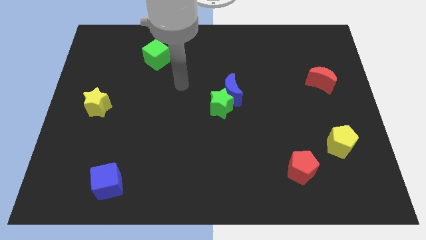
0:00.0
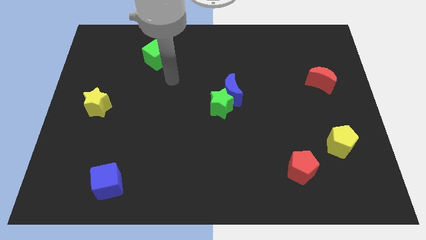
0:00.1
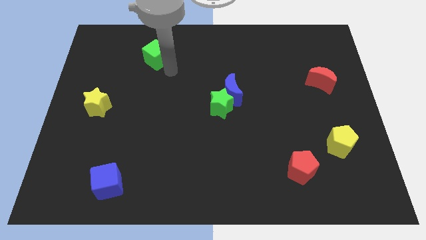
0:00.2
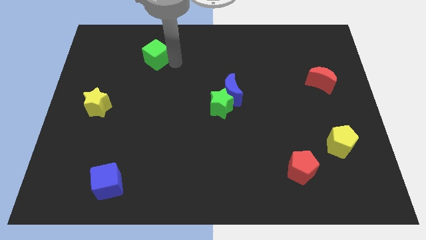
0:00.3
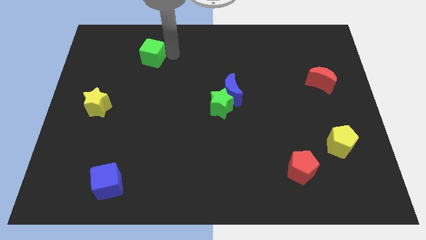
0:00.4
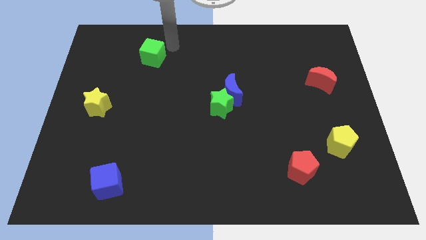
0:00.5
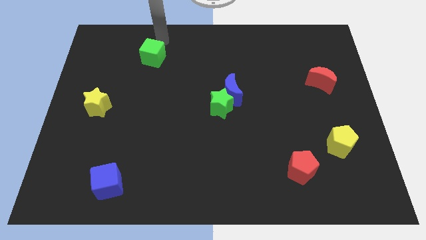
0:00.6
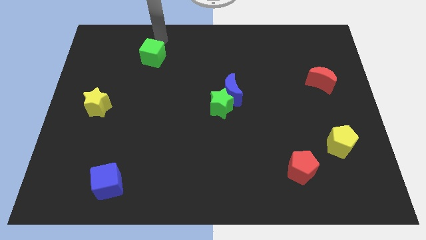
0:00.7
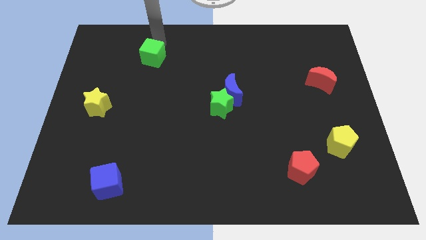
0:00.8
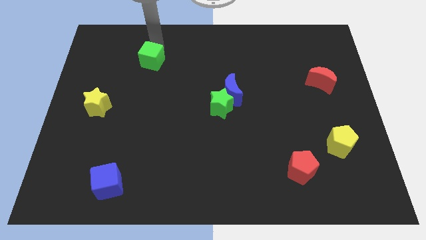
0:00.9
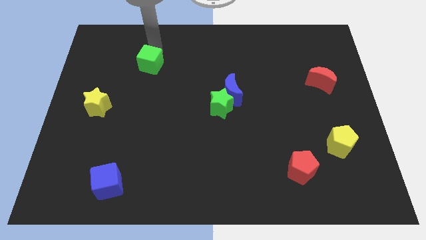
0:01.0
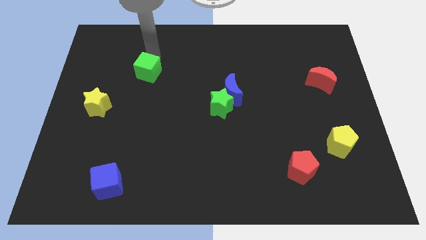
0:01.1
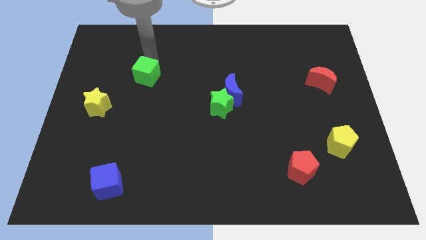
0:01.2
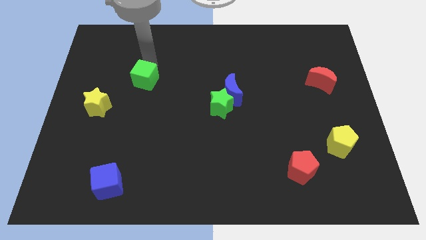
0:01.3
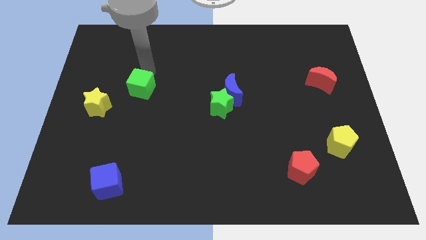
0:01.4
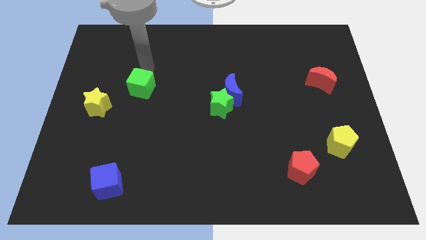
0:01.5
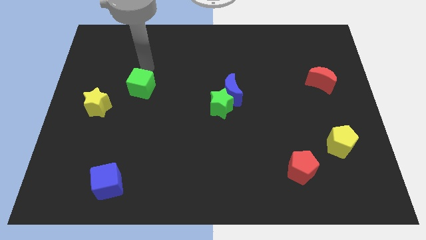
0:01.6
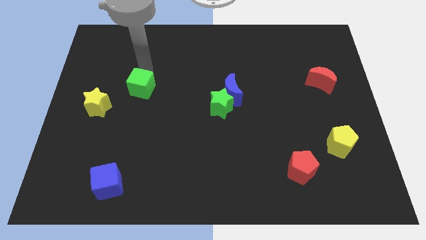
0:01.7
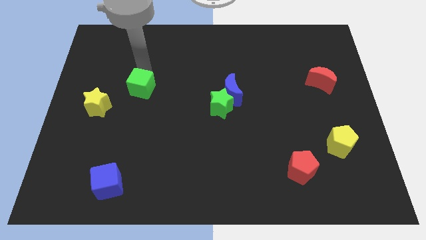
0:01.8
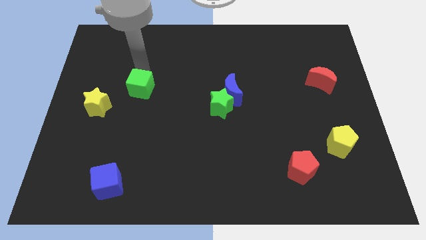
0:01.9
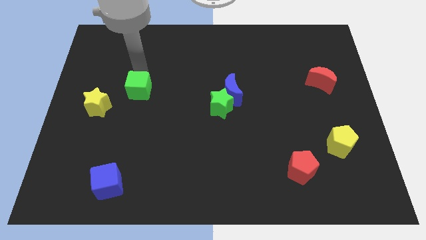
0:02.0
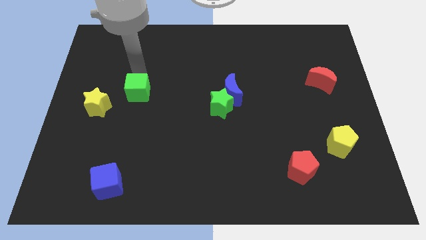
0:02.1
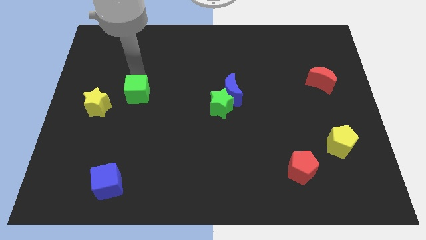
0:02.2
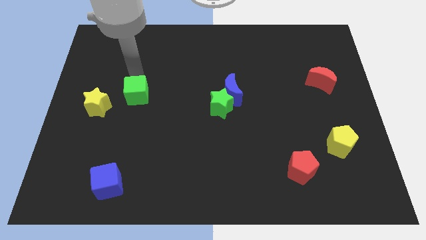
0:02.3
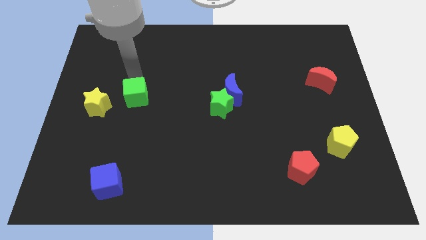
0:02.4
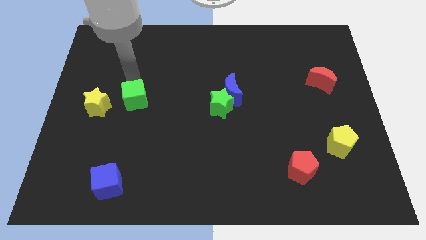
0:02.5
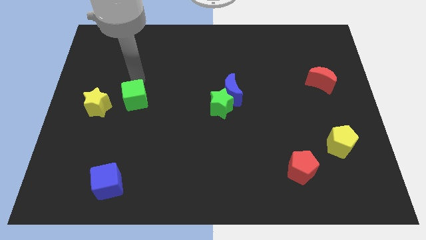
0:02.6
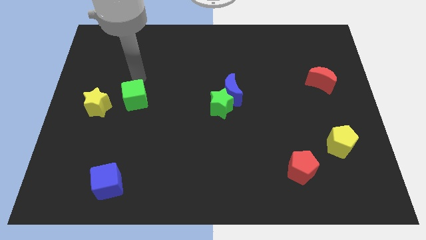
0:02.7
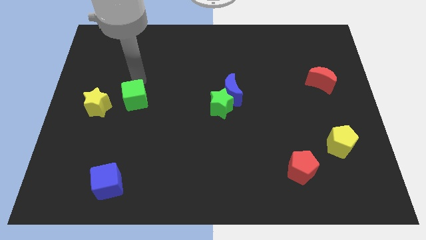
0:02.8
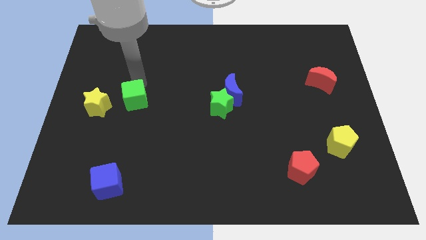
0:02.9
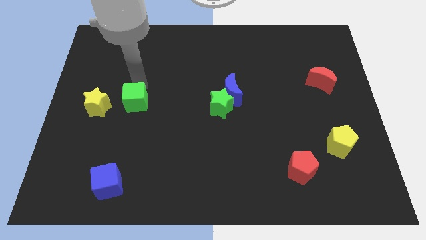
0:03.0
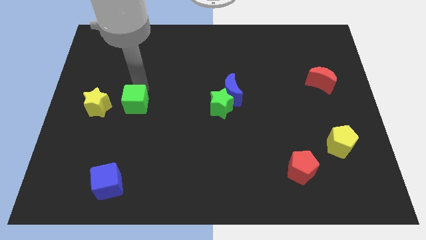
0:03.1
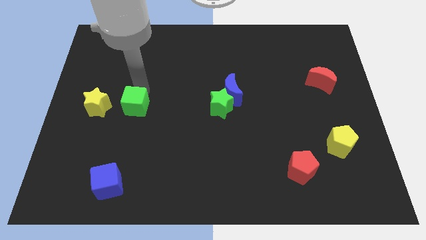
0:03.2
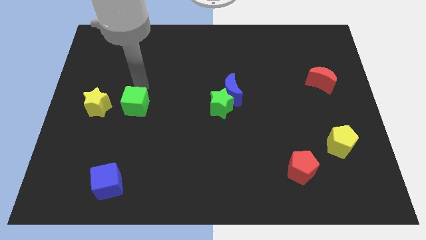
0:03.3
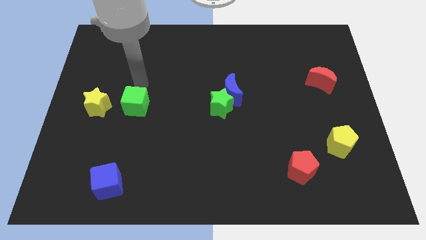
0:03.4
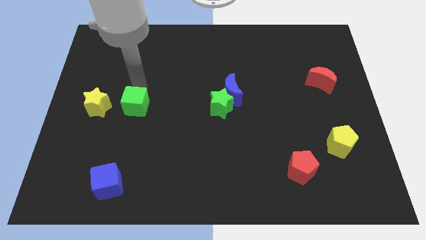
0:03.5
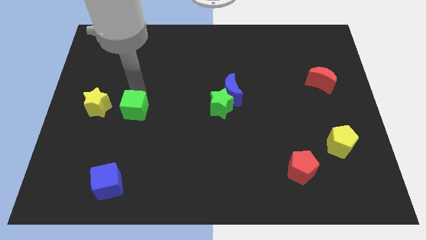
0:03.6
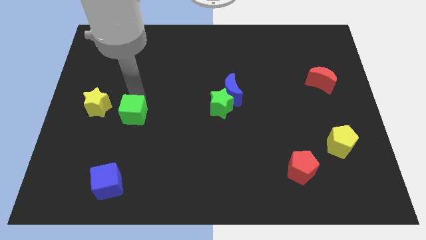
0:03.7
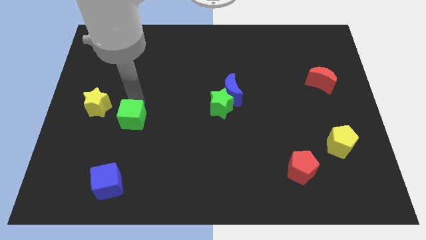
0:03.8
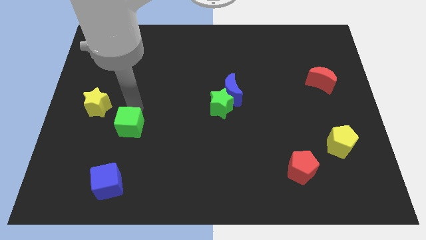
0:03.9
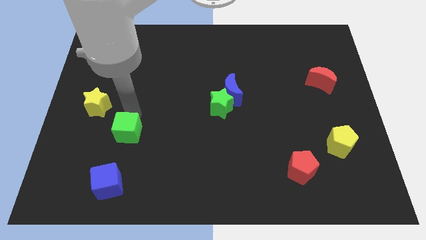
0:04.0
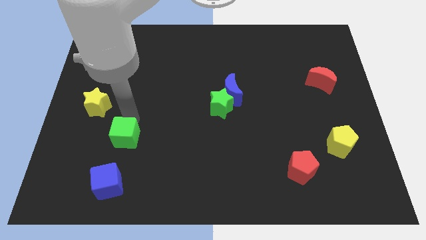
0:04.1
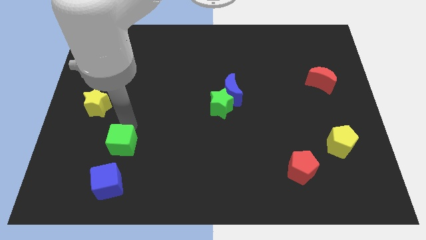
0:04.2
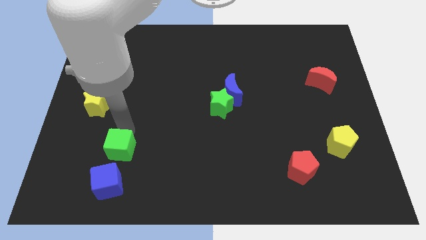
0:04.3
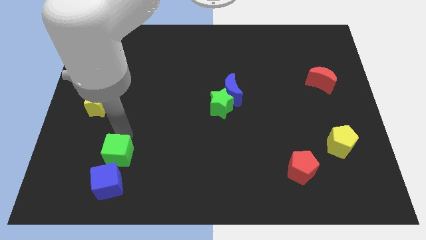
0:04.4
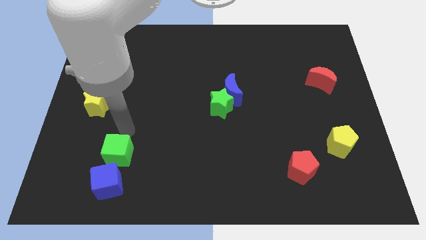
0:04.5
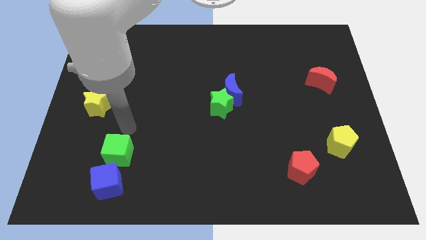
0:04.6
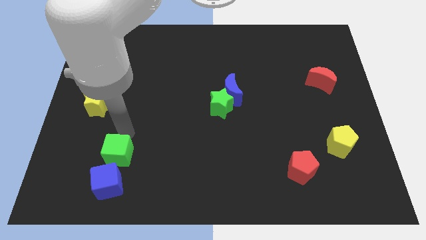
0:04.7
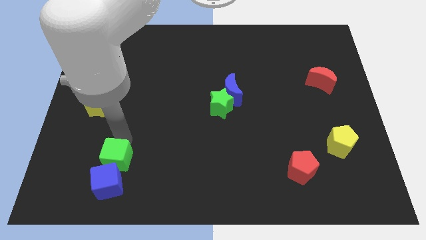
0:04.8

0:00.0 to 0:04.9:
put the green cube next to the blue cube

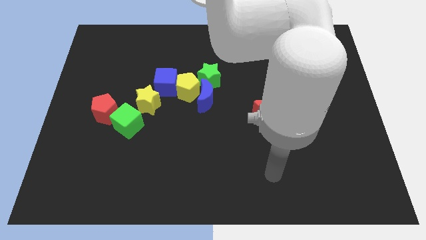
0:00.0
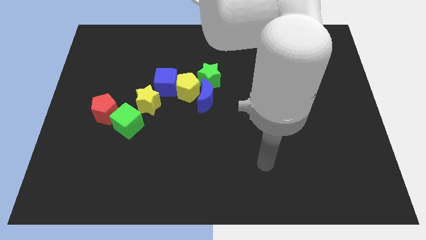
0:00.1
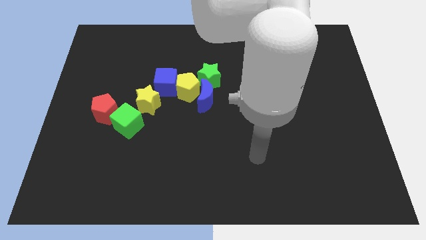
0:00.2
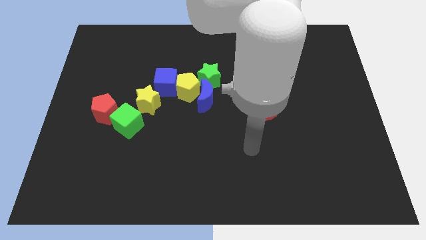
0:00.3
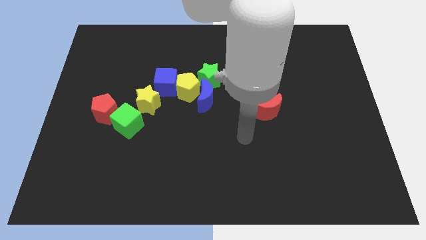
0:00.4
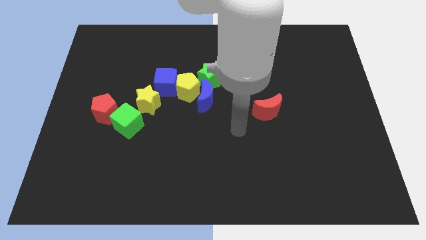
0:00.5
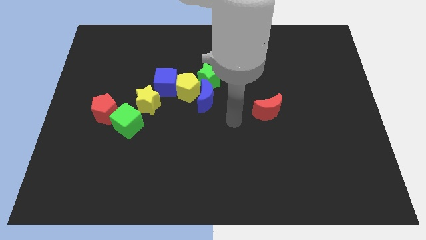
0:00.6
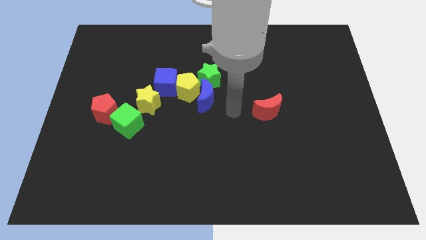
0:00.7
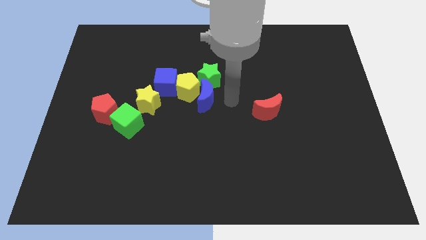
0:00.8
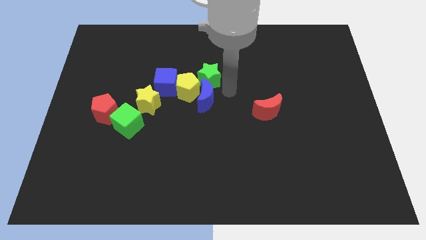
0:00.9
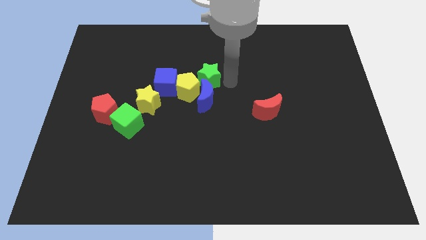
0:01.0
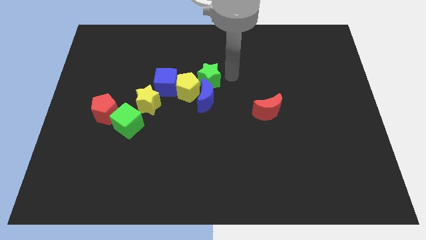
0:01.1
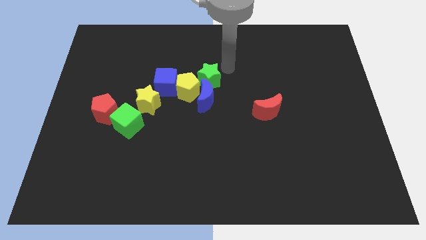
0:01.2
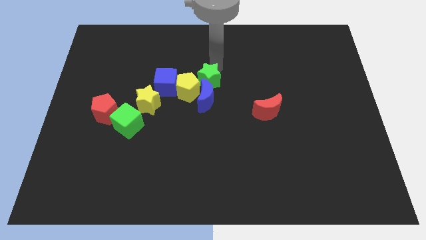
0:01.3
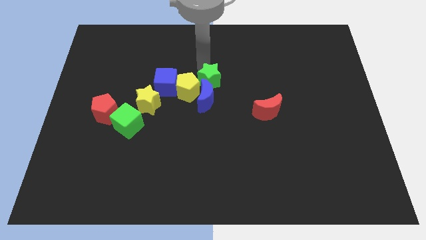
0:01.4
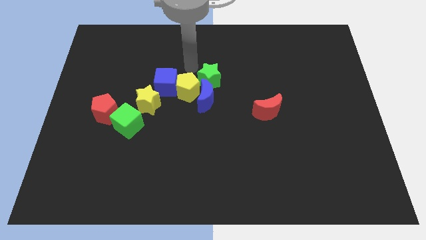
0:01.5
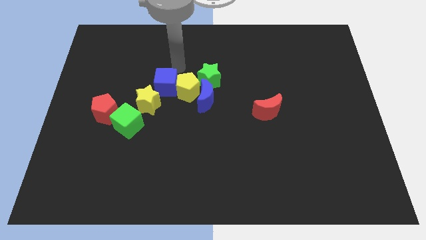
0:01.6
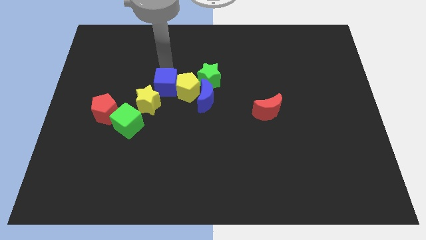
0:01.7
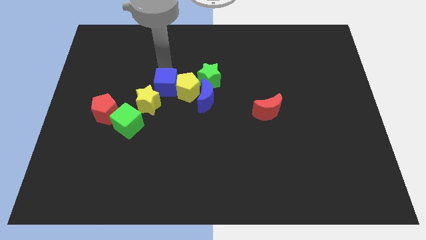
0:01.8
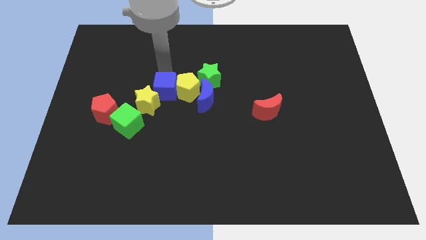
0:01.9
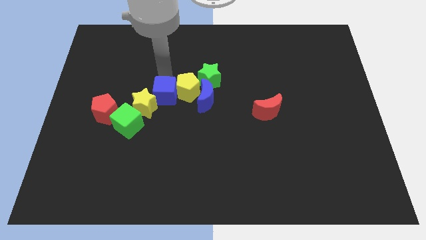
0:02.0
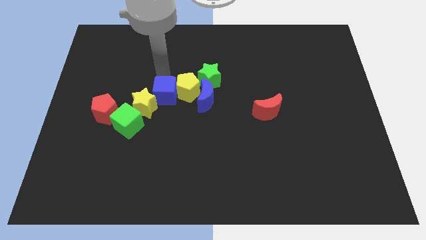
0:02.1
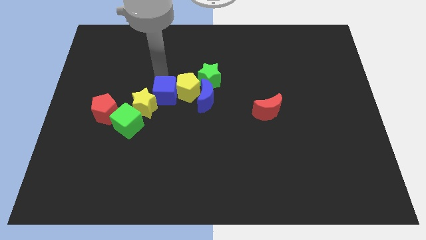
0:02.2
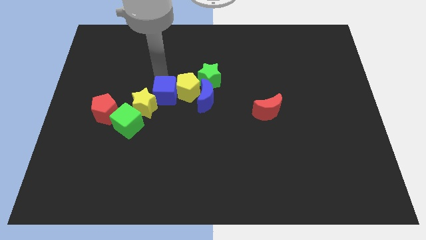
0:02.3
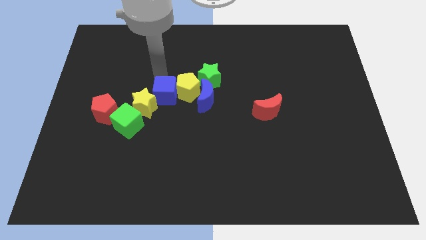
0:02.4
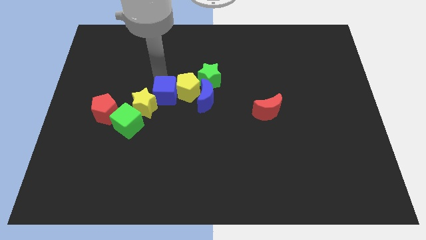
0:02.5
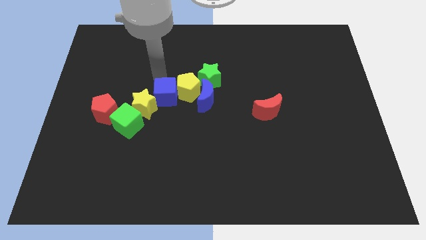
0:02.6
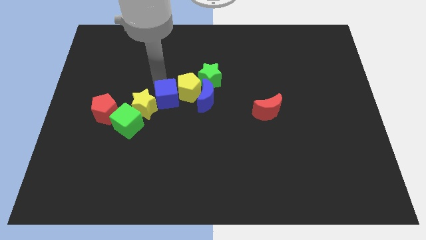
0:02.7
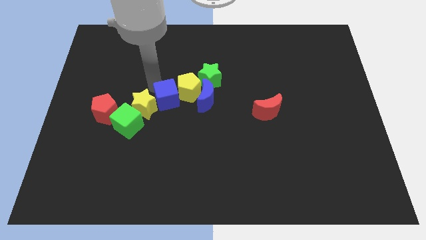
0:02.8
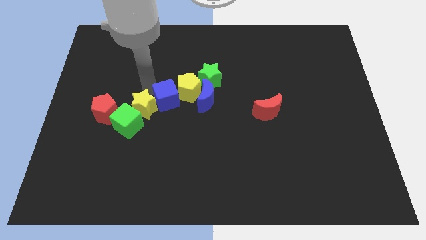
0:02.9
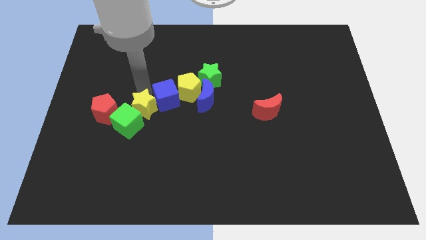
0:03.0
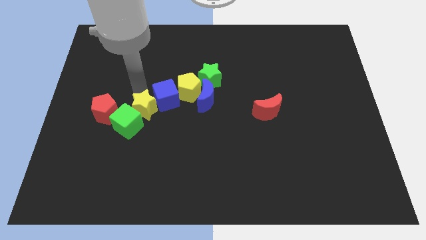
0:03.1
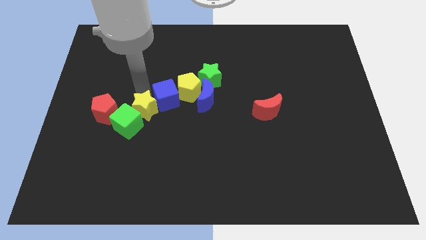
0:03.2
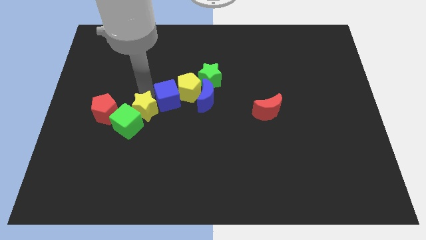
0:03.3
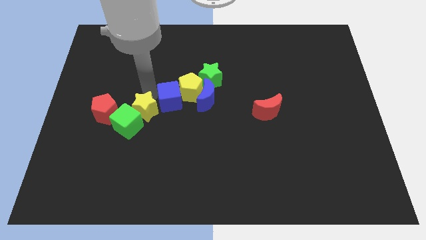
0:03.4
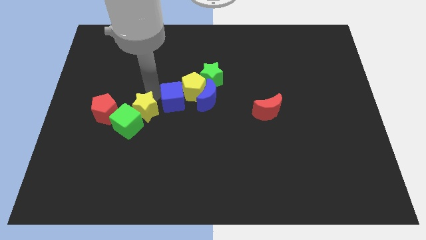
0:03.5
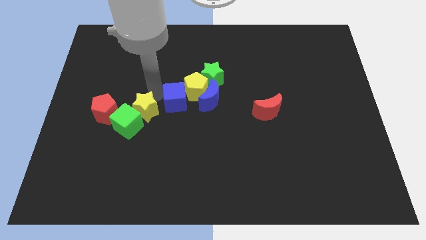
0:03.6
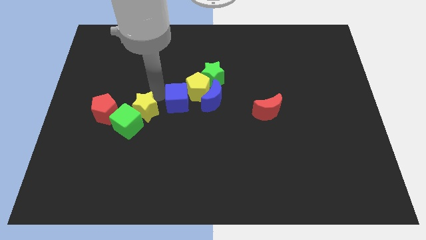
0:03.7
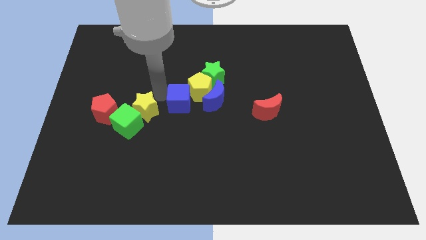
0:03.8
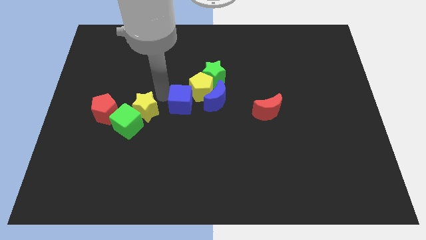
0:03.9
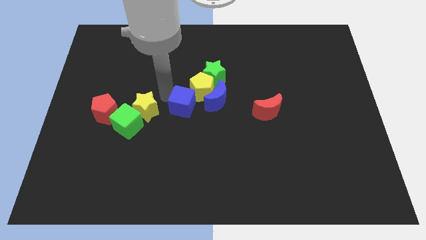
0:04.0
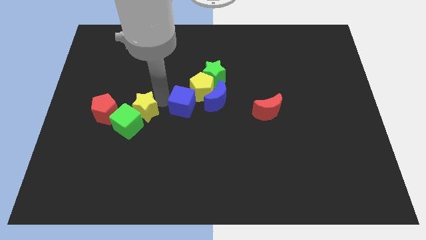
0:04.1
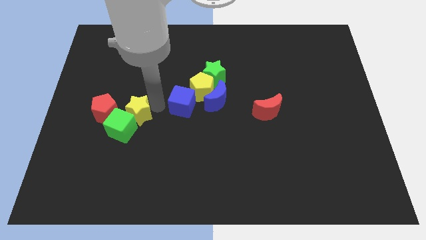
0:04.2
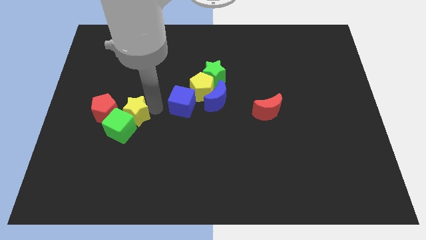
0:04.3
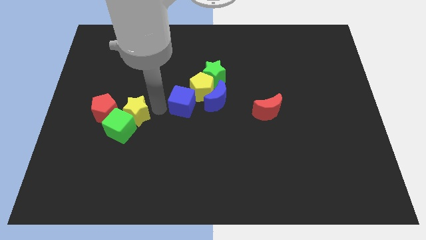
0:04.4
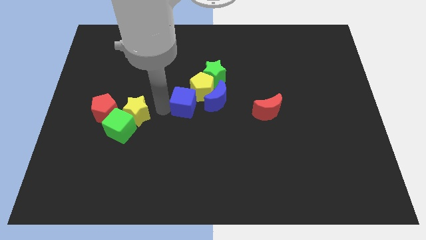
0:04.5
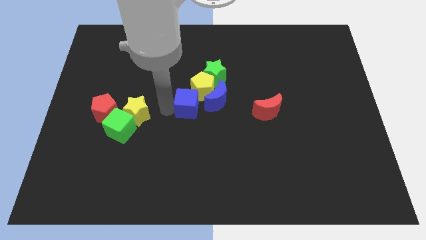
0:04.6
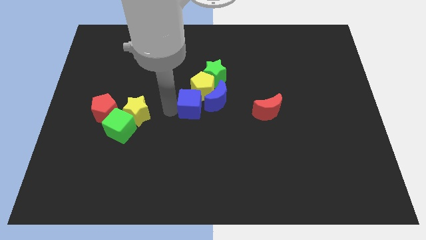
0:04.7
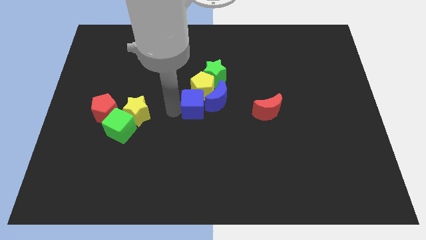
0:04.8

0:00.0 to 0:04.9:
move the blue cube towards the blue moon
